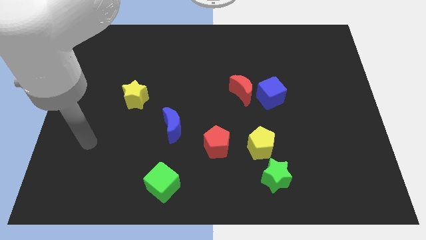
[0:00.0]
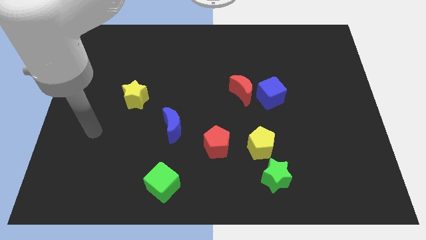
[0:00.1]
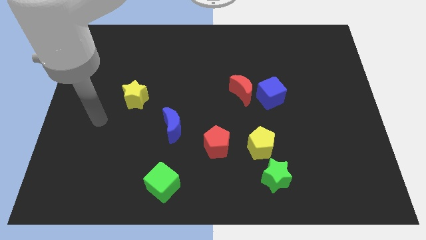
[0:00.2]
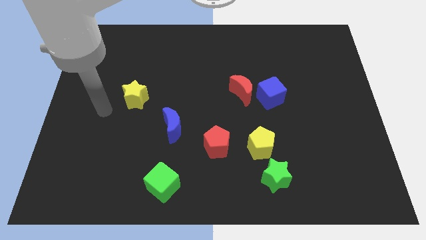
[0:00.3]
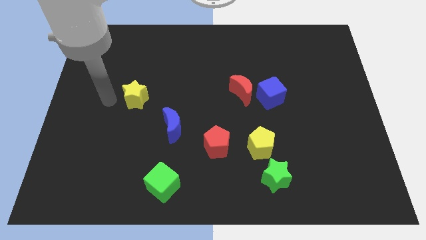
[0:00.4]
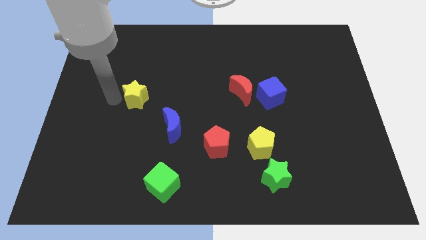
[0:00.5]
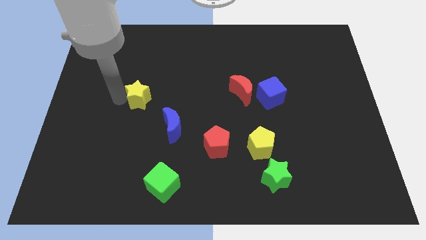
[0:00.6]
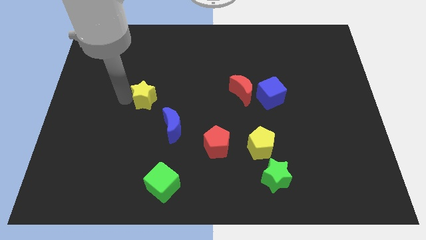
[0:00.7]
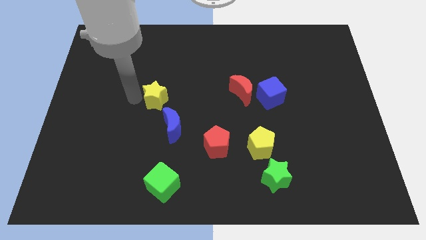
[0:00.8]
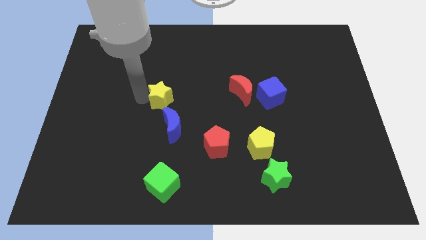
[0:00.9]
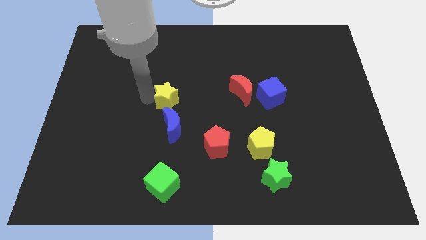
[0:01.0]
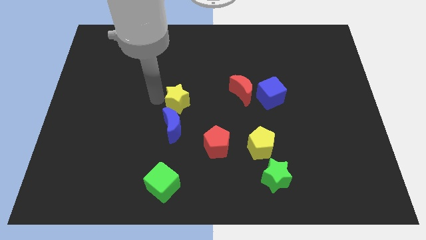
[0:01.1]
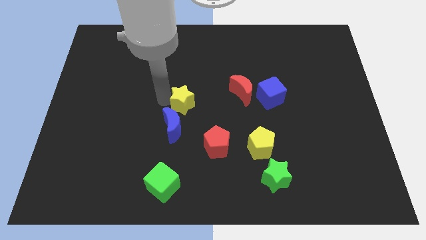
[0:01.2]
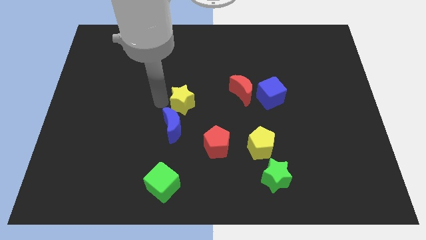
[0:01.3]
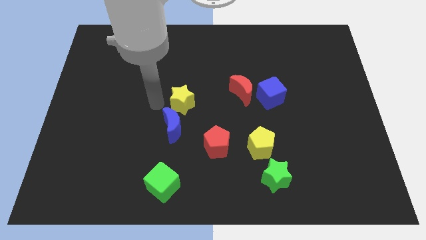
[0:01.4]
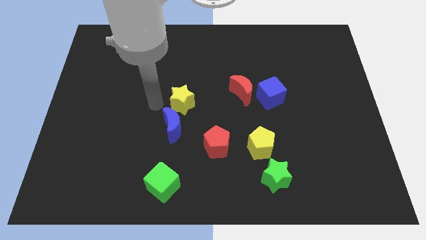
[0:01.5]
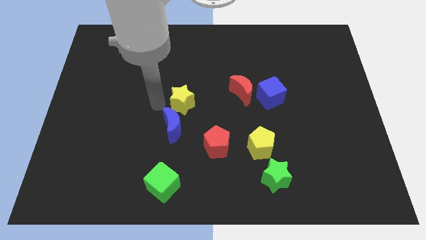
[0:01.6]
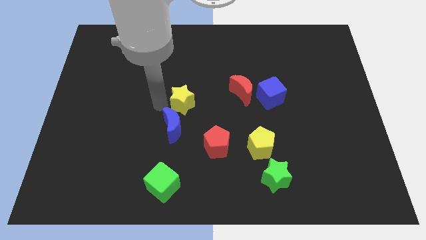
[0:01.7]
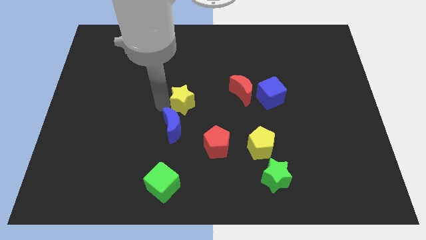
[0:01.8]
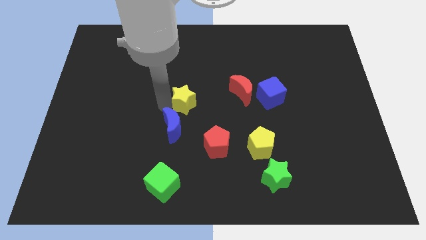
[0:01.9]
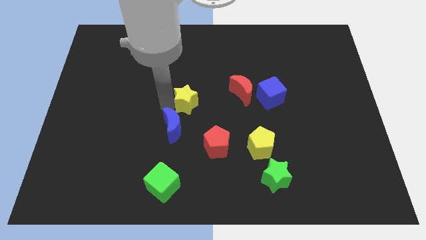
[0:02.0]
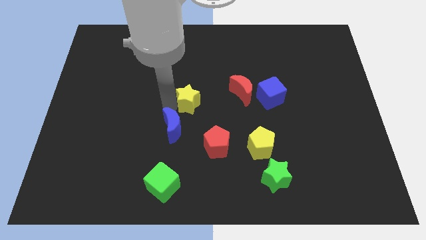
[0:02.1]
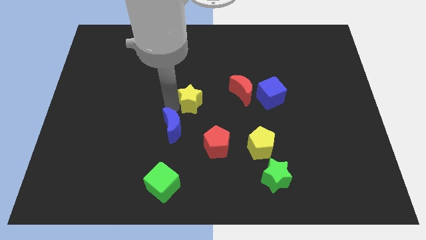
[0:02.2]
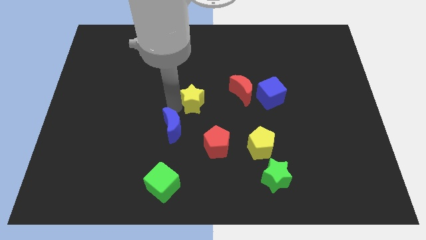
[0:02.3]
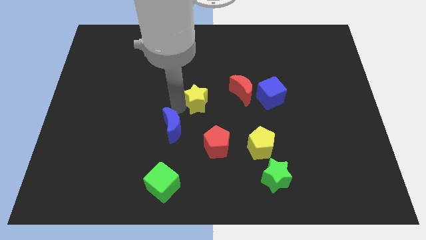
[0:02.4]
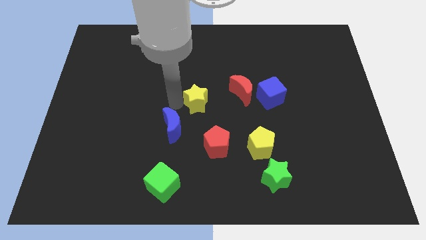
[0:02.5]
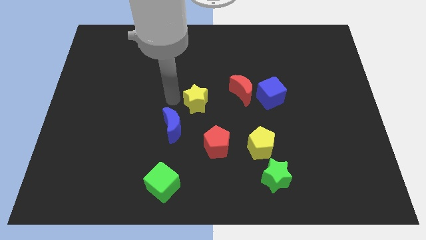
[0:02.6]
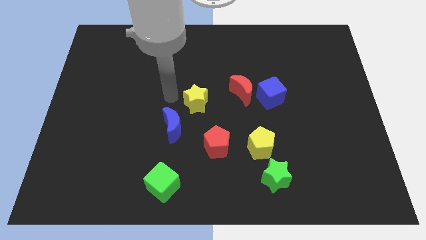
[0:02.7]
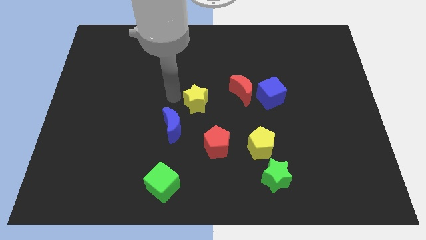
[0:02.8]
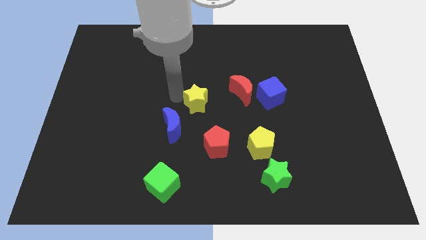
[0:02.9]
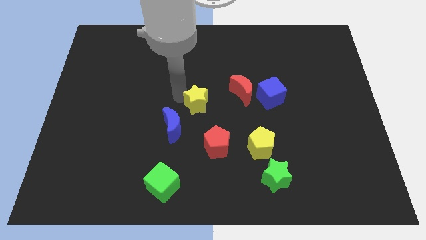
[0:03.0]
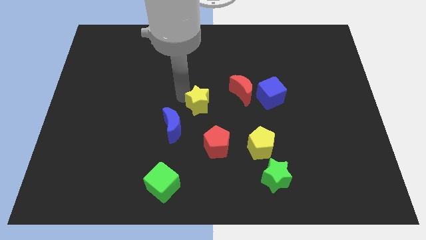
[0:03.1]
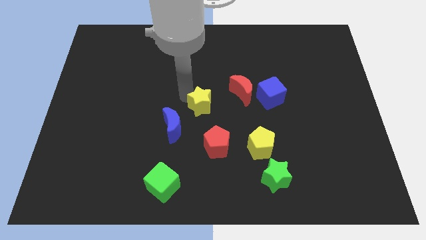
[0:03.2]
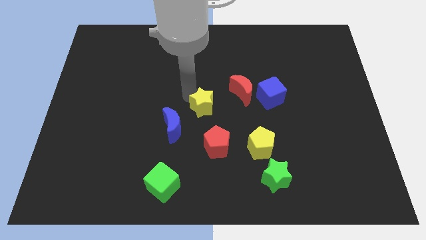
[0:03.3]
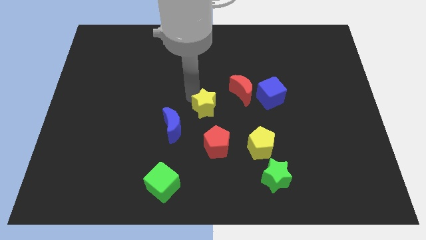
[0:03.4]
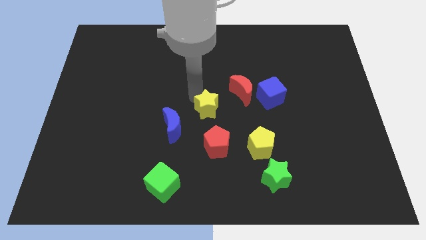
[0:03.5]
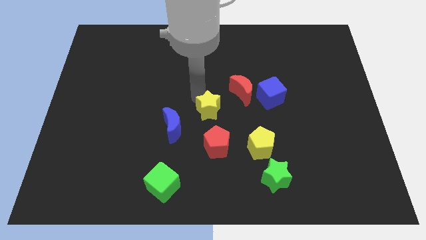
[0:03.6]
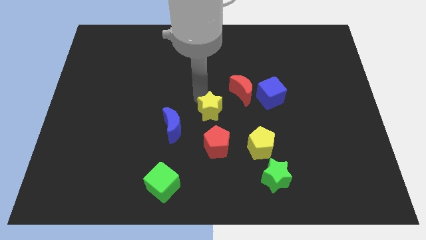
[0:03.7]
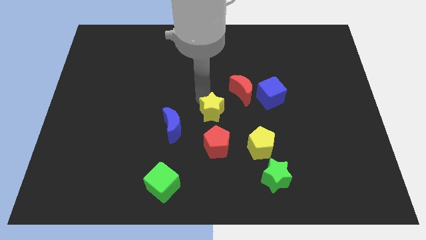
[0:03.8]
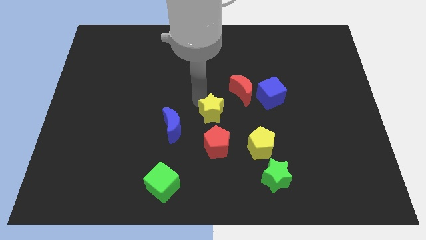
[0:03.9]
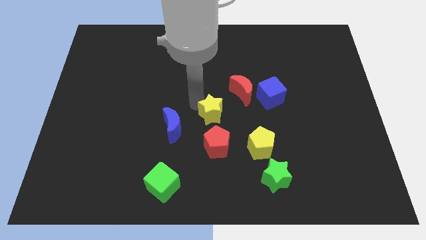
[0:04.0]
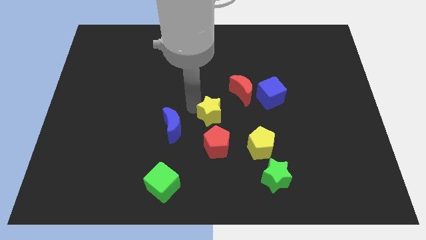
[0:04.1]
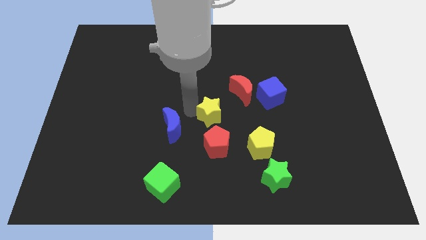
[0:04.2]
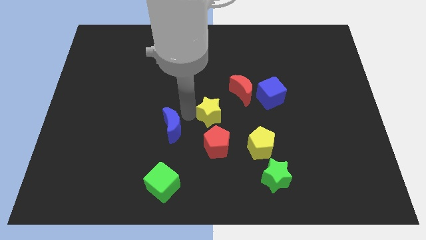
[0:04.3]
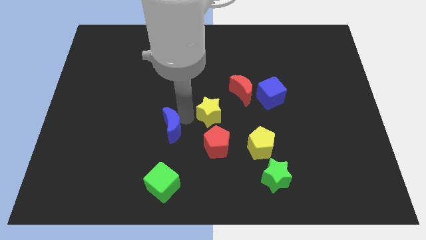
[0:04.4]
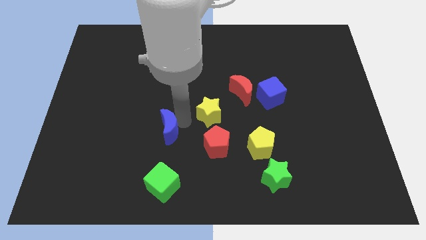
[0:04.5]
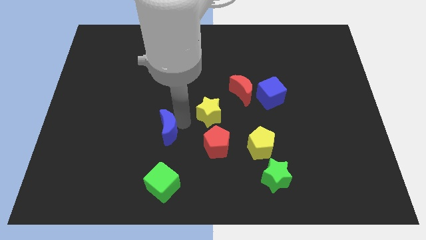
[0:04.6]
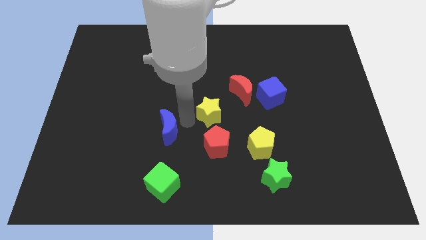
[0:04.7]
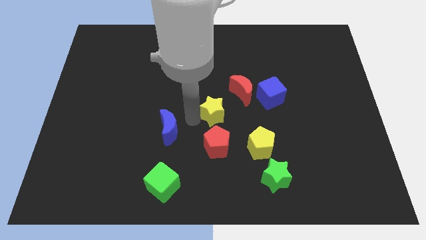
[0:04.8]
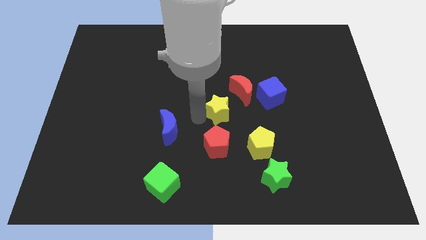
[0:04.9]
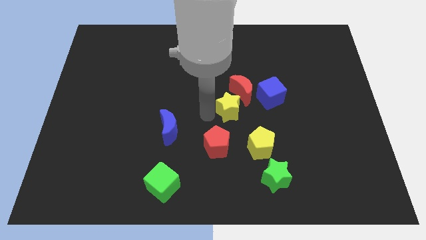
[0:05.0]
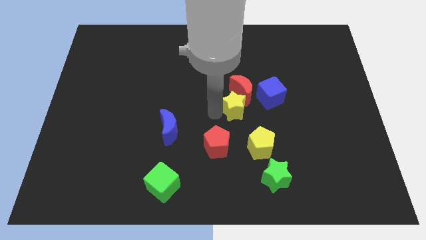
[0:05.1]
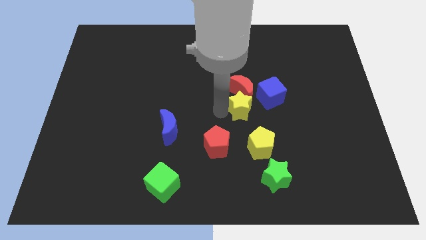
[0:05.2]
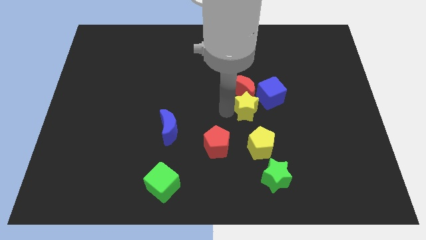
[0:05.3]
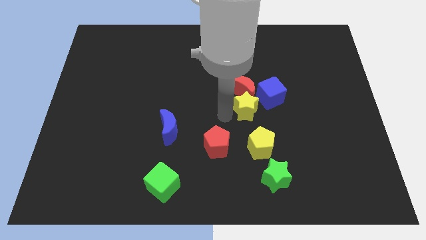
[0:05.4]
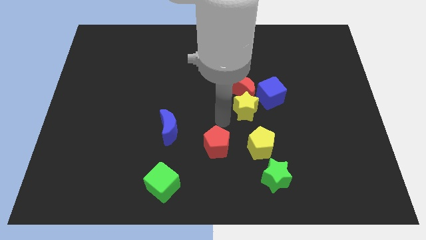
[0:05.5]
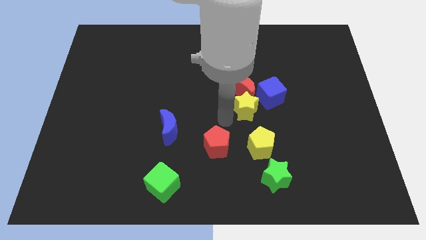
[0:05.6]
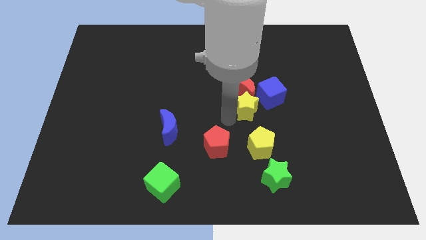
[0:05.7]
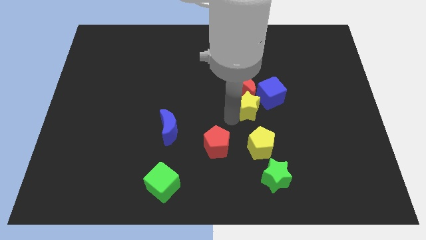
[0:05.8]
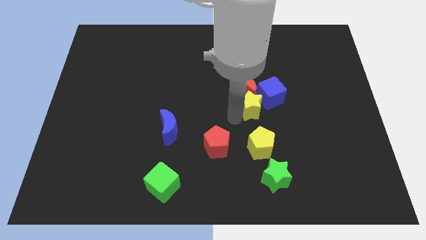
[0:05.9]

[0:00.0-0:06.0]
move the yellow star towards the blue cube

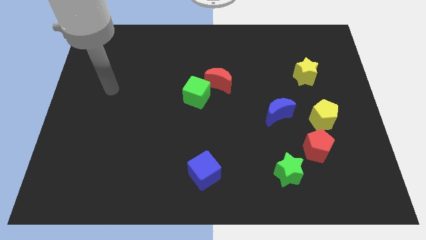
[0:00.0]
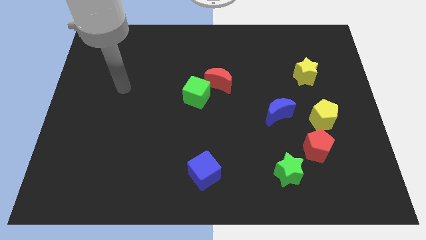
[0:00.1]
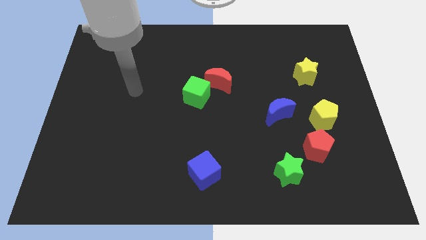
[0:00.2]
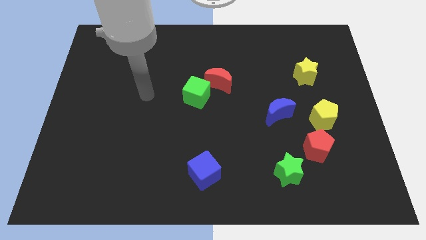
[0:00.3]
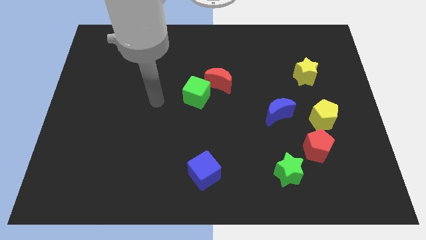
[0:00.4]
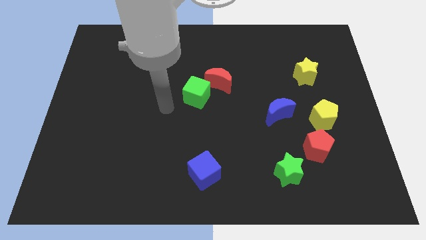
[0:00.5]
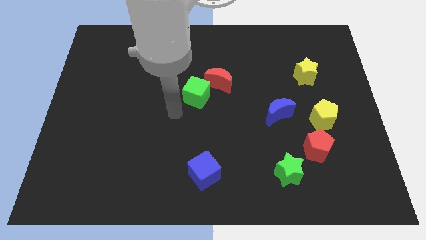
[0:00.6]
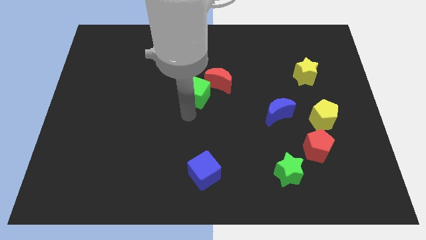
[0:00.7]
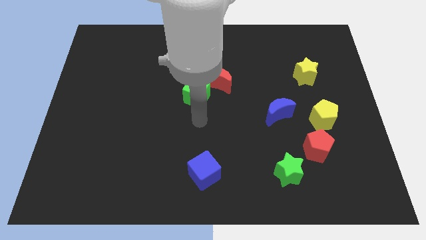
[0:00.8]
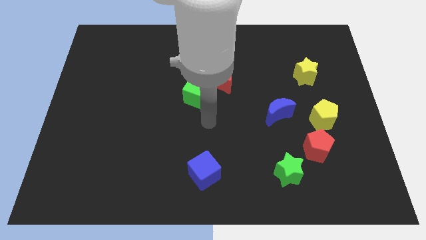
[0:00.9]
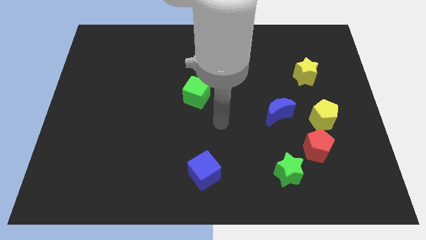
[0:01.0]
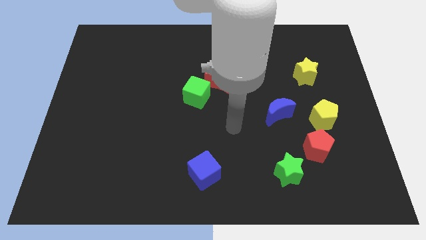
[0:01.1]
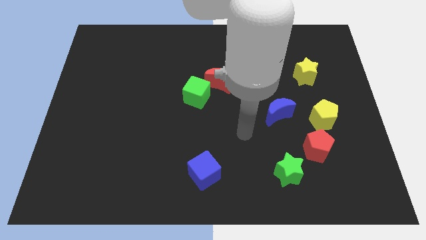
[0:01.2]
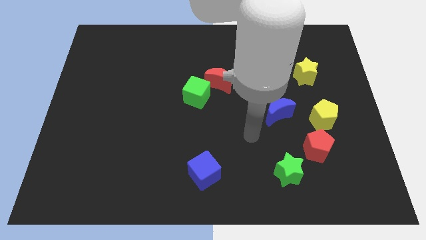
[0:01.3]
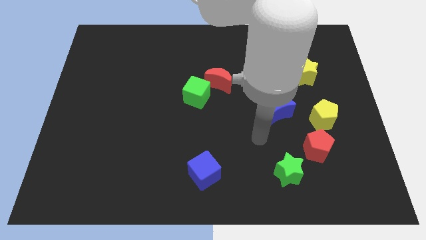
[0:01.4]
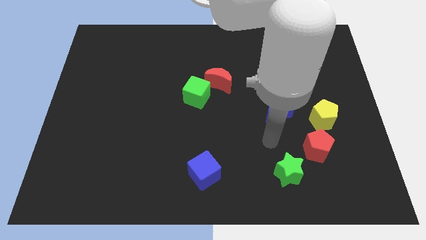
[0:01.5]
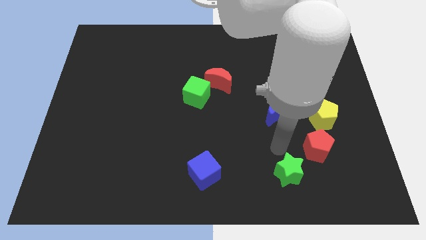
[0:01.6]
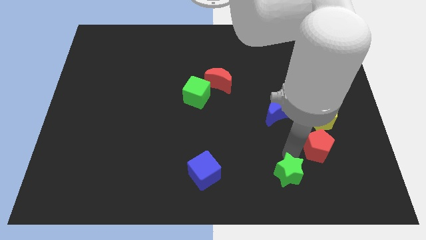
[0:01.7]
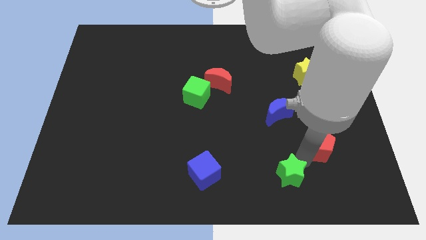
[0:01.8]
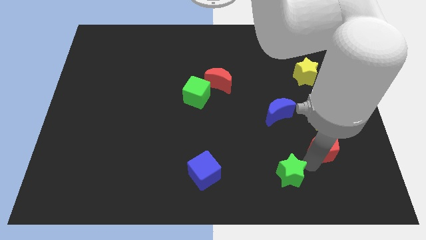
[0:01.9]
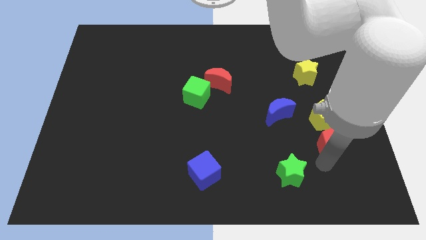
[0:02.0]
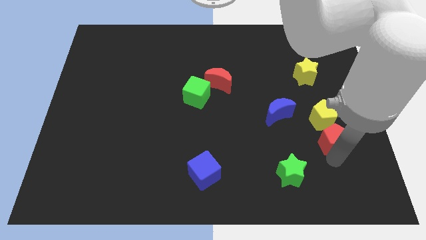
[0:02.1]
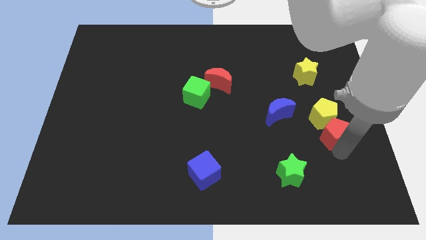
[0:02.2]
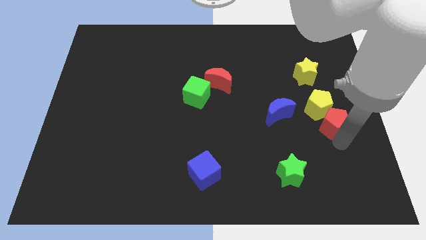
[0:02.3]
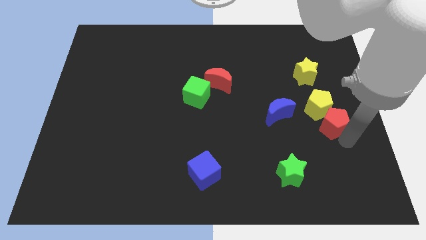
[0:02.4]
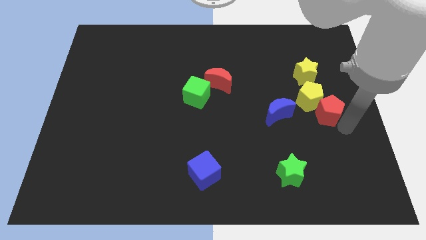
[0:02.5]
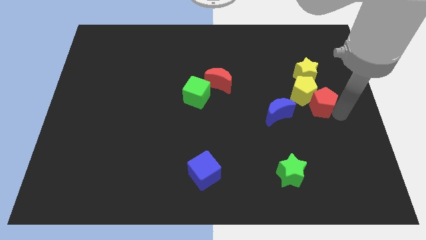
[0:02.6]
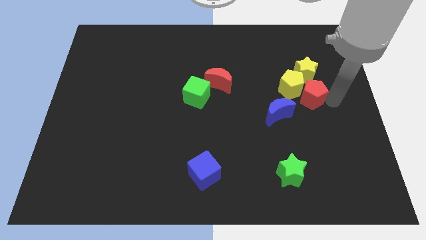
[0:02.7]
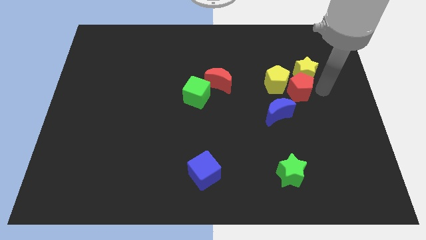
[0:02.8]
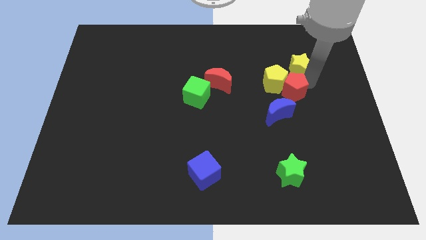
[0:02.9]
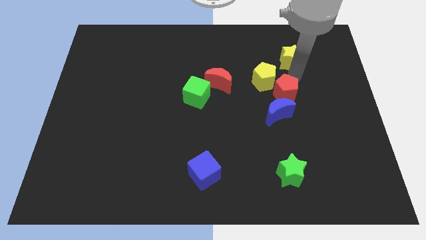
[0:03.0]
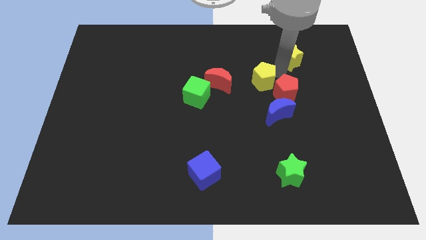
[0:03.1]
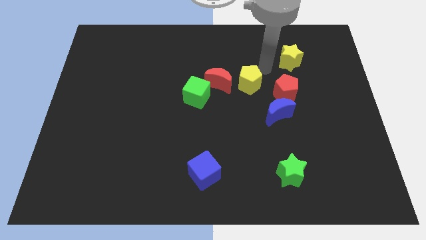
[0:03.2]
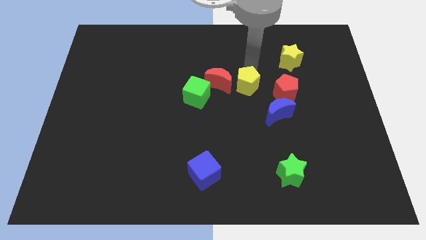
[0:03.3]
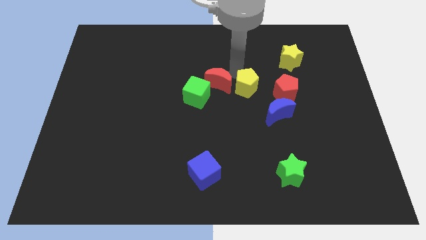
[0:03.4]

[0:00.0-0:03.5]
push the yellow pentagon towards the red moon
